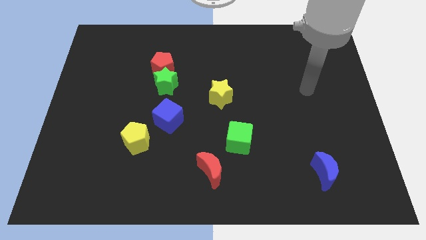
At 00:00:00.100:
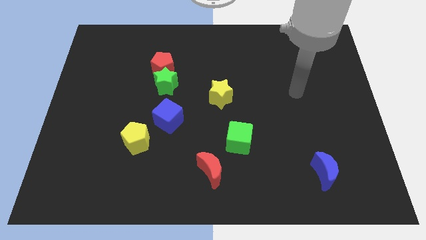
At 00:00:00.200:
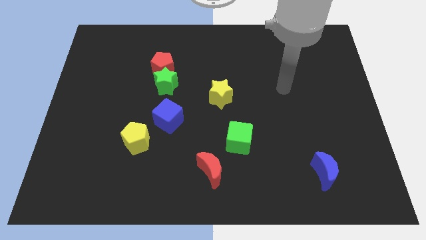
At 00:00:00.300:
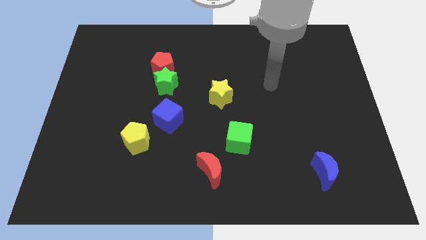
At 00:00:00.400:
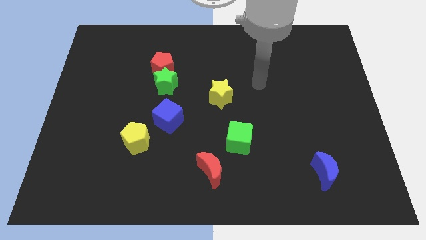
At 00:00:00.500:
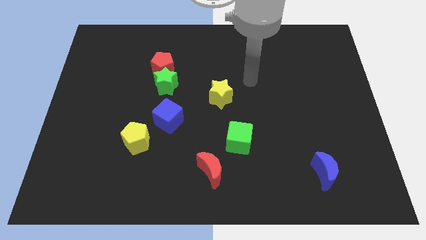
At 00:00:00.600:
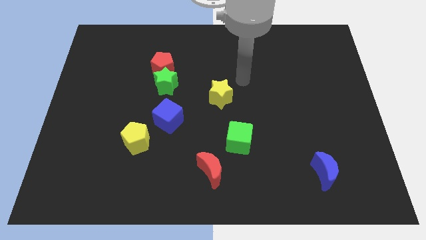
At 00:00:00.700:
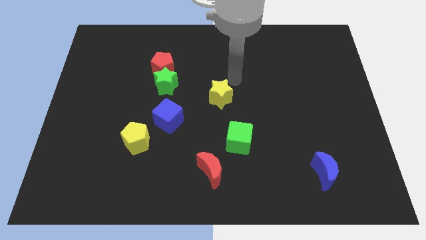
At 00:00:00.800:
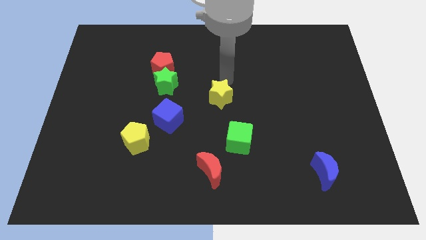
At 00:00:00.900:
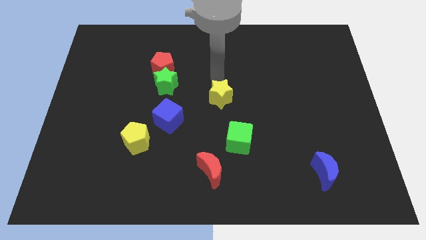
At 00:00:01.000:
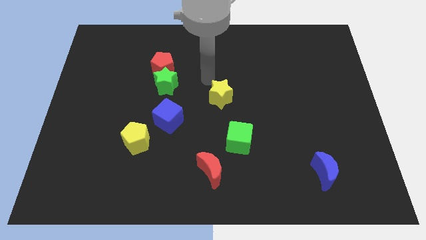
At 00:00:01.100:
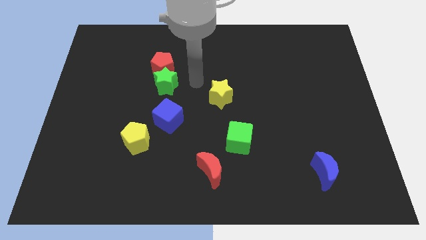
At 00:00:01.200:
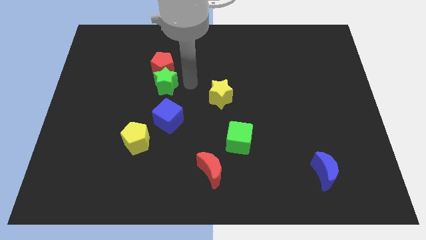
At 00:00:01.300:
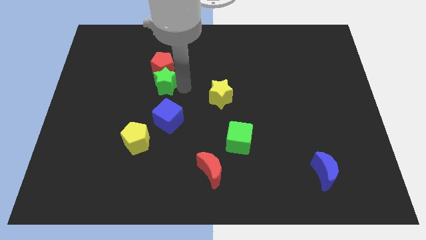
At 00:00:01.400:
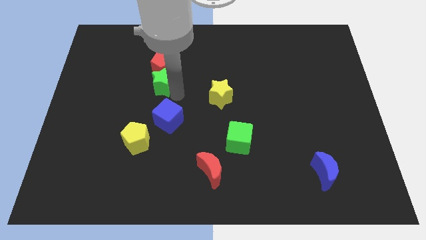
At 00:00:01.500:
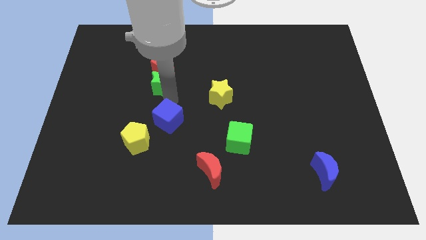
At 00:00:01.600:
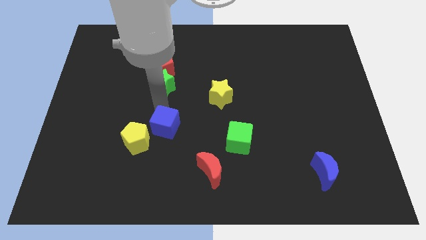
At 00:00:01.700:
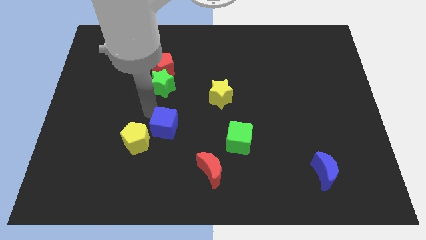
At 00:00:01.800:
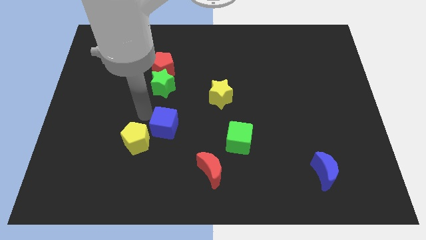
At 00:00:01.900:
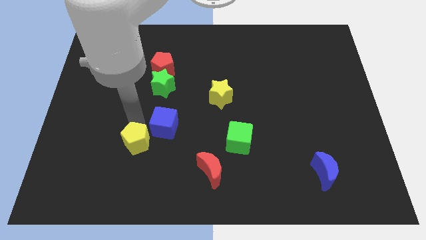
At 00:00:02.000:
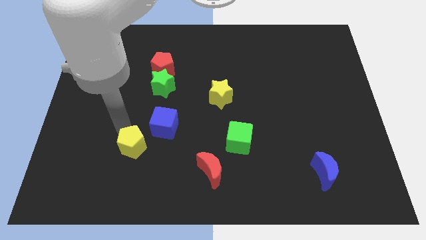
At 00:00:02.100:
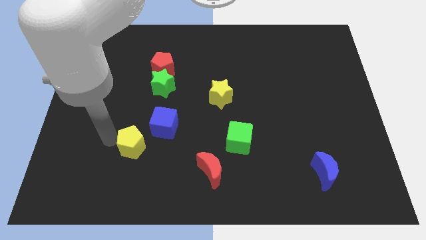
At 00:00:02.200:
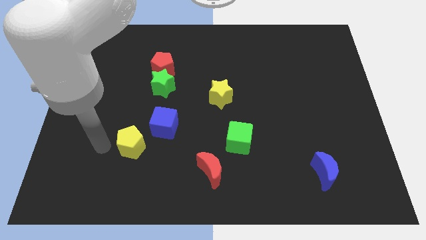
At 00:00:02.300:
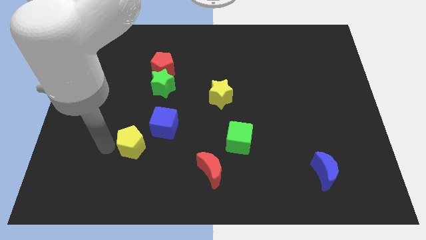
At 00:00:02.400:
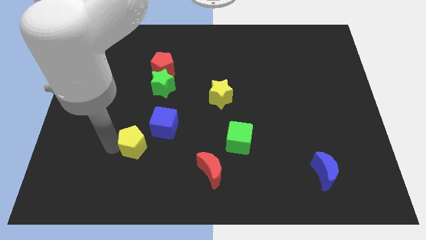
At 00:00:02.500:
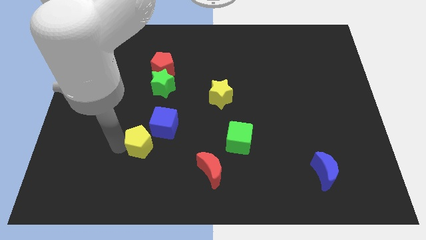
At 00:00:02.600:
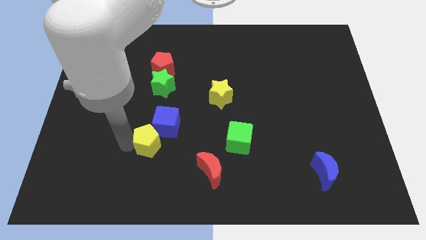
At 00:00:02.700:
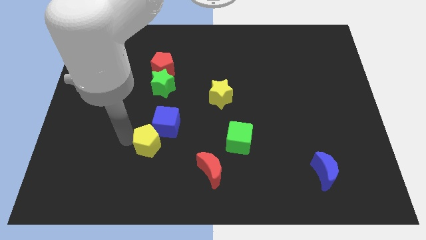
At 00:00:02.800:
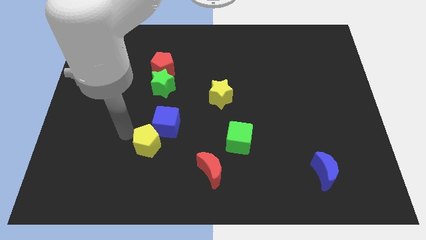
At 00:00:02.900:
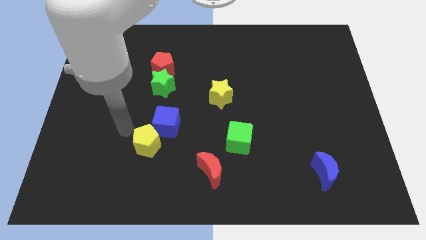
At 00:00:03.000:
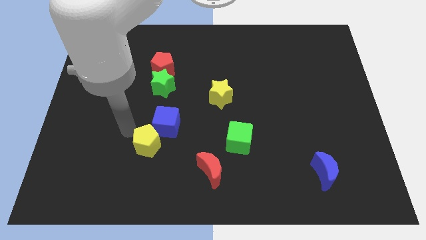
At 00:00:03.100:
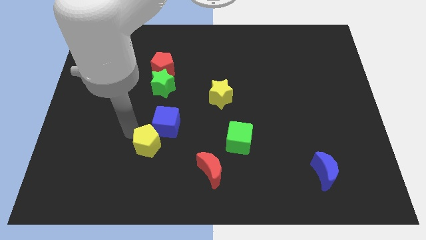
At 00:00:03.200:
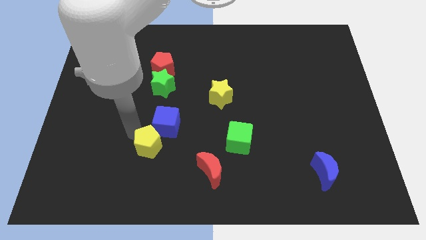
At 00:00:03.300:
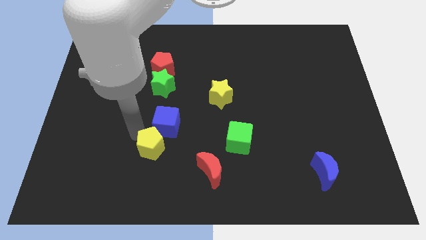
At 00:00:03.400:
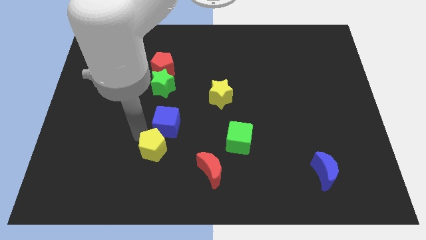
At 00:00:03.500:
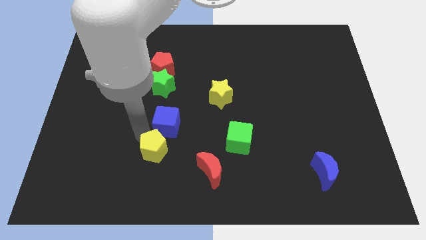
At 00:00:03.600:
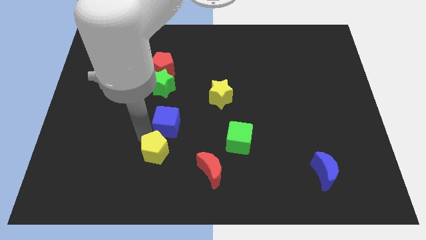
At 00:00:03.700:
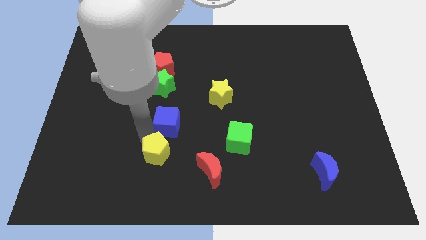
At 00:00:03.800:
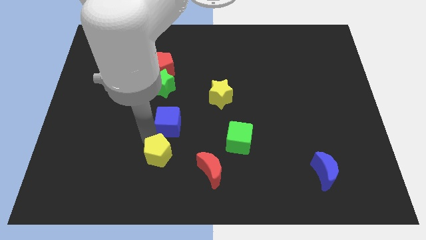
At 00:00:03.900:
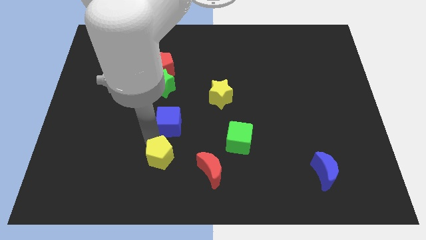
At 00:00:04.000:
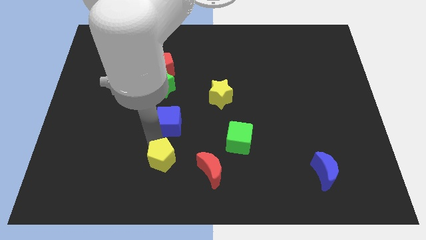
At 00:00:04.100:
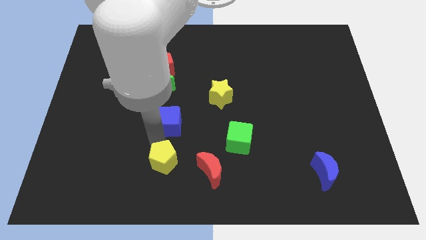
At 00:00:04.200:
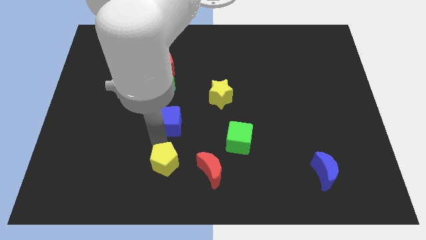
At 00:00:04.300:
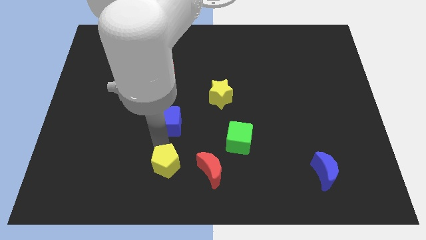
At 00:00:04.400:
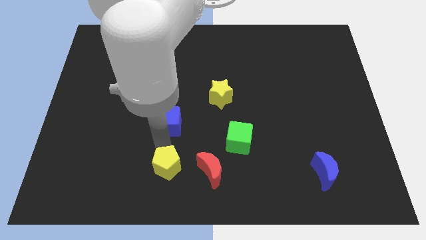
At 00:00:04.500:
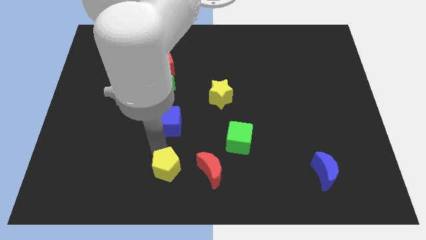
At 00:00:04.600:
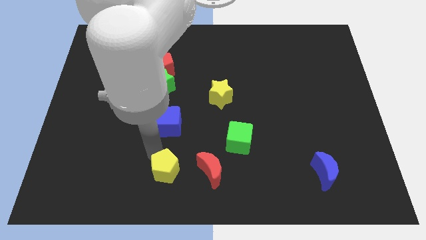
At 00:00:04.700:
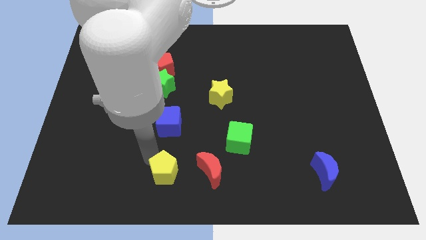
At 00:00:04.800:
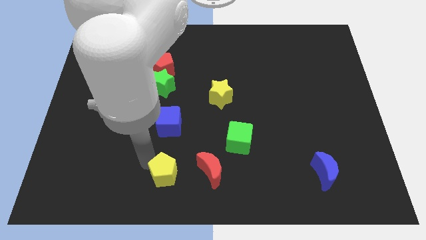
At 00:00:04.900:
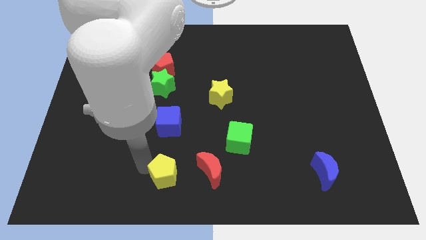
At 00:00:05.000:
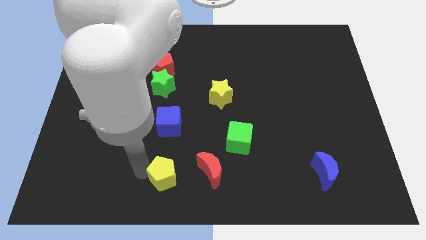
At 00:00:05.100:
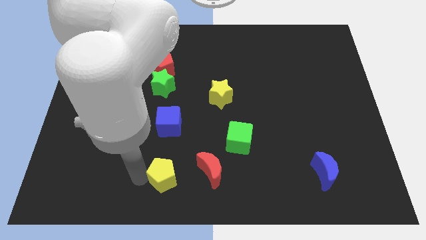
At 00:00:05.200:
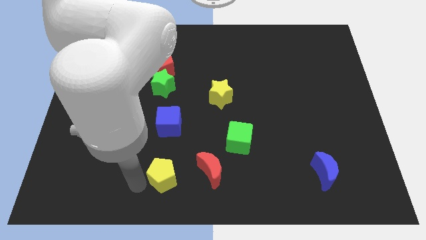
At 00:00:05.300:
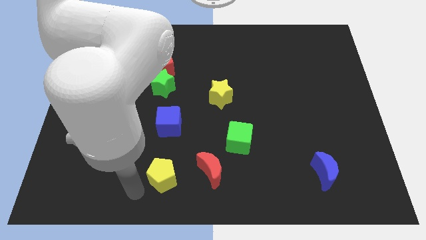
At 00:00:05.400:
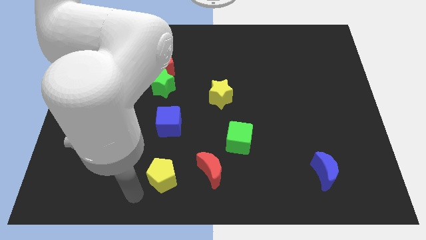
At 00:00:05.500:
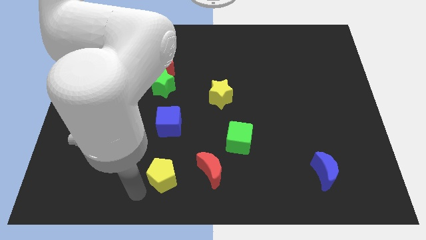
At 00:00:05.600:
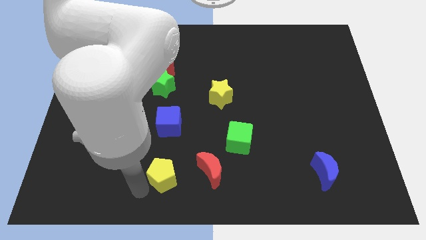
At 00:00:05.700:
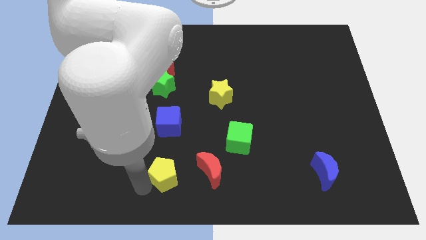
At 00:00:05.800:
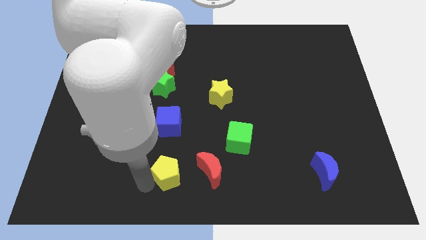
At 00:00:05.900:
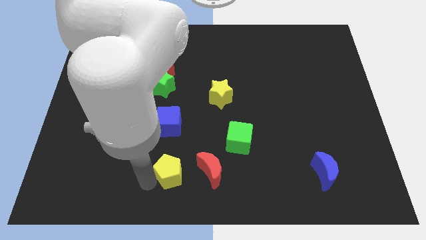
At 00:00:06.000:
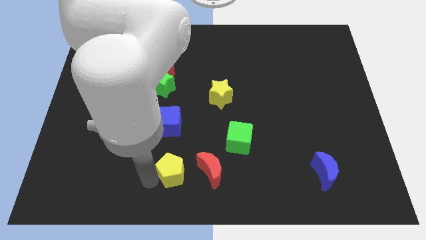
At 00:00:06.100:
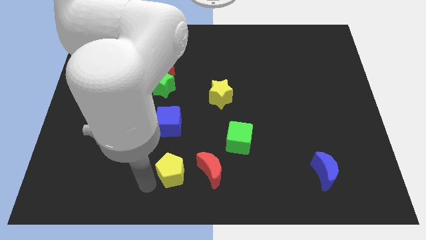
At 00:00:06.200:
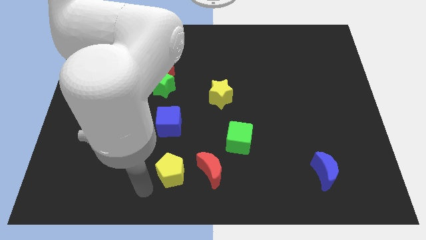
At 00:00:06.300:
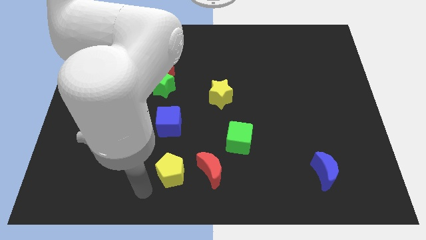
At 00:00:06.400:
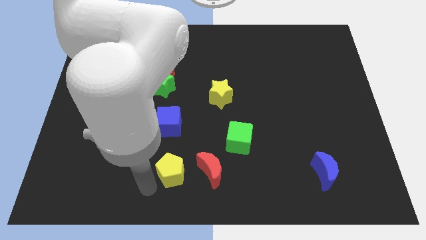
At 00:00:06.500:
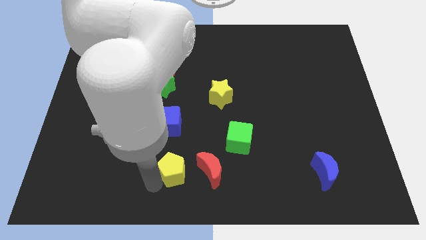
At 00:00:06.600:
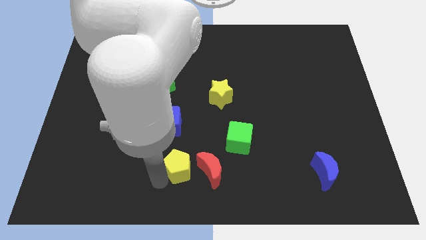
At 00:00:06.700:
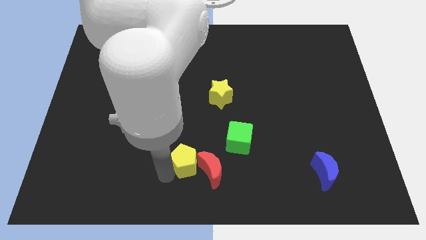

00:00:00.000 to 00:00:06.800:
move the yellow pentagon to the red moon
